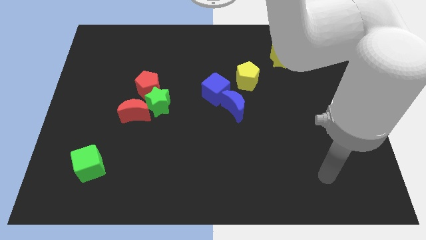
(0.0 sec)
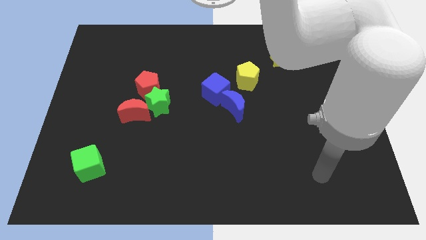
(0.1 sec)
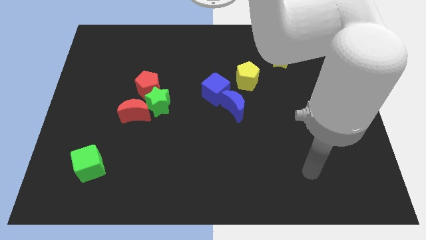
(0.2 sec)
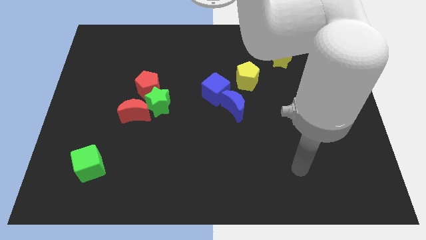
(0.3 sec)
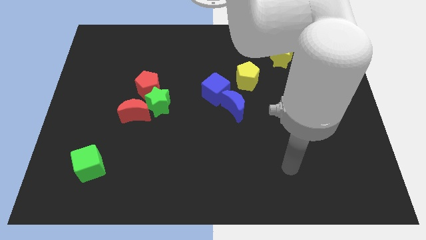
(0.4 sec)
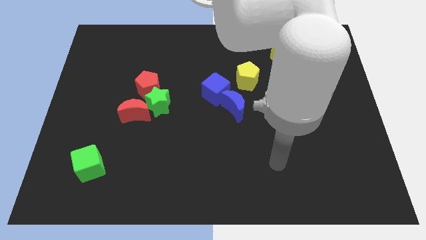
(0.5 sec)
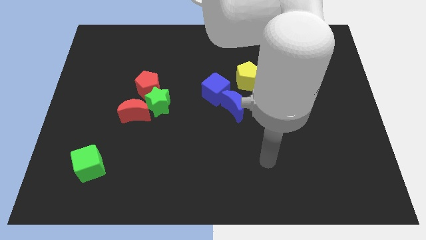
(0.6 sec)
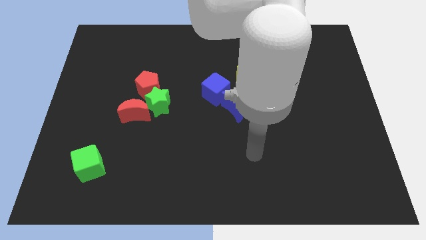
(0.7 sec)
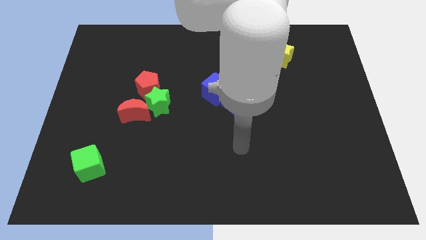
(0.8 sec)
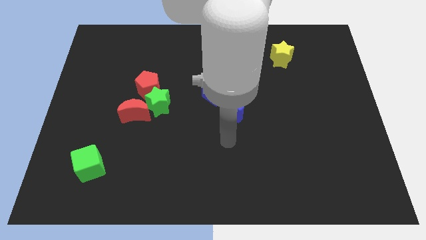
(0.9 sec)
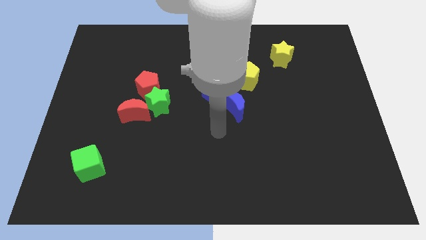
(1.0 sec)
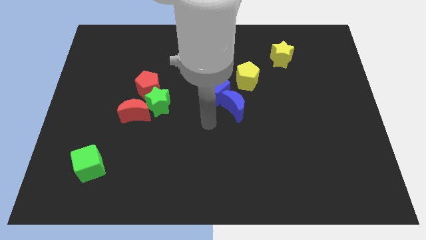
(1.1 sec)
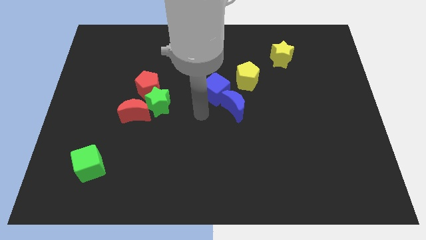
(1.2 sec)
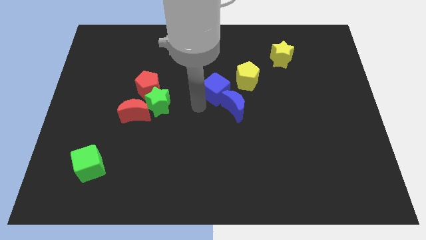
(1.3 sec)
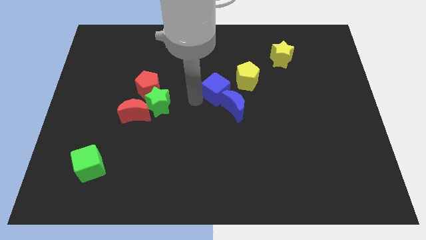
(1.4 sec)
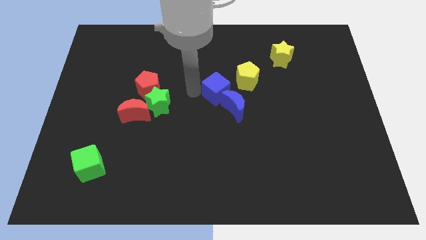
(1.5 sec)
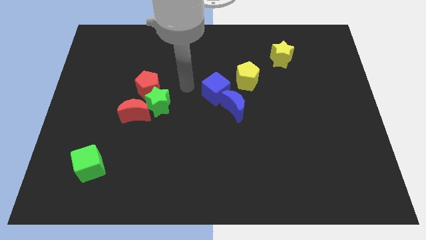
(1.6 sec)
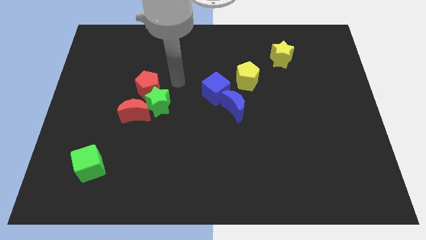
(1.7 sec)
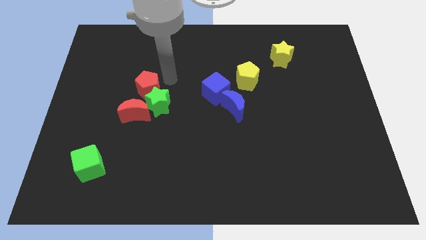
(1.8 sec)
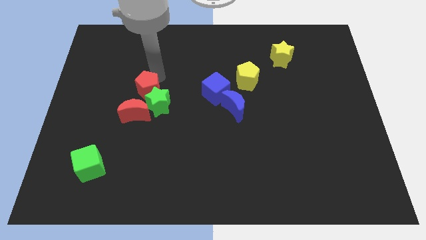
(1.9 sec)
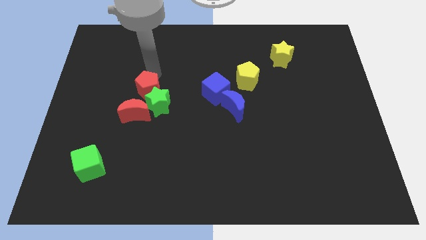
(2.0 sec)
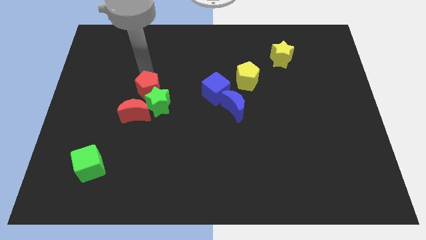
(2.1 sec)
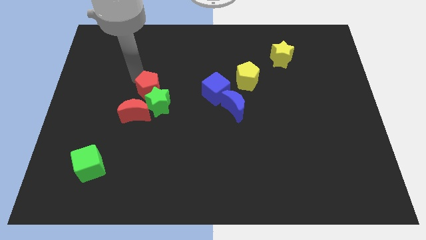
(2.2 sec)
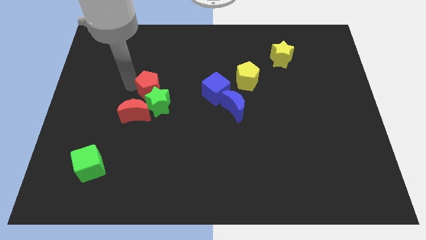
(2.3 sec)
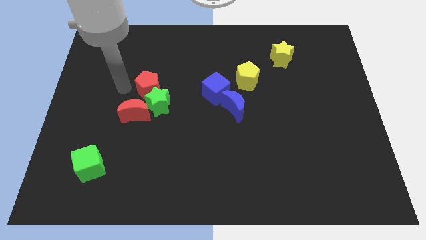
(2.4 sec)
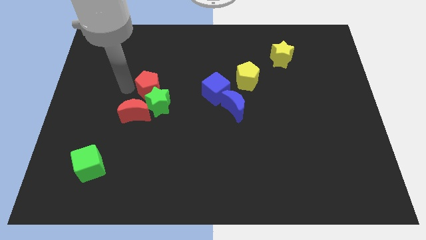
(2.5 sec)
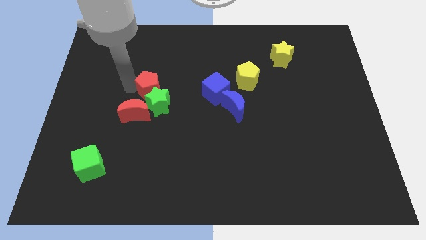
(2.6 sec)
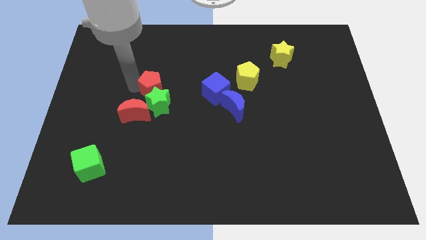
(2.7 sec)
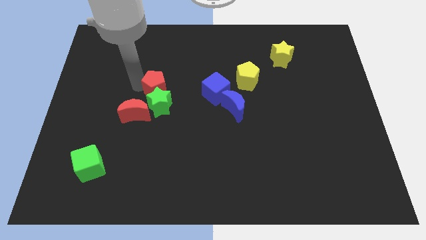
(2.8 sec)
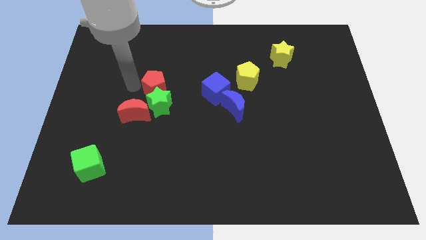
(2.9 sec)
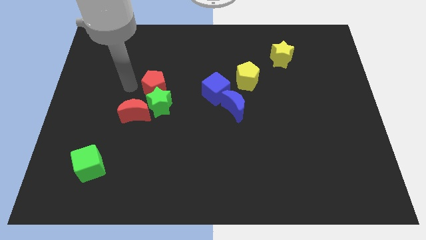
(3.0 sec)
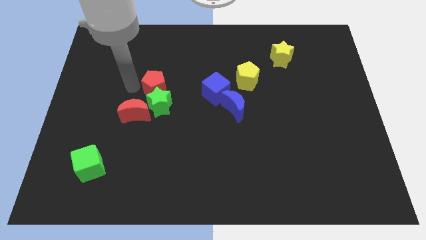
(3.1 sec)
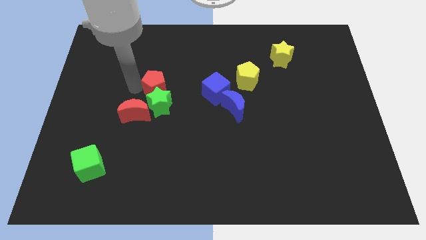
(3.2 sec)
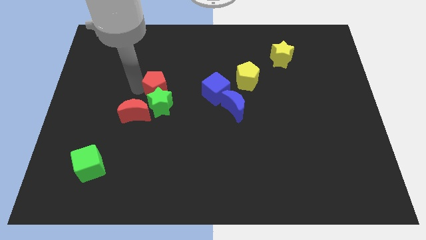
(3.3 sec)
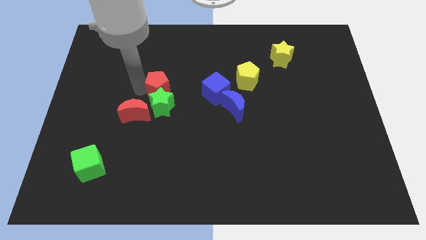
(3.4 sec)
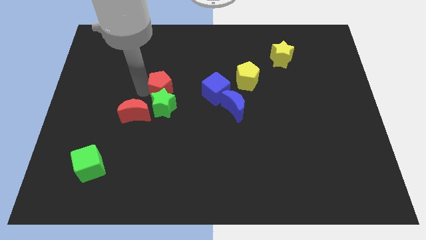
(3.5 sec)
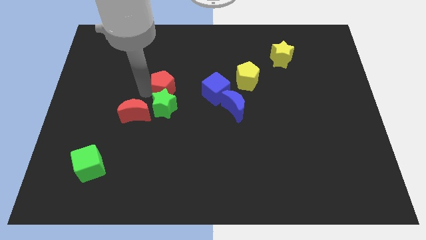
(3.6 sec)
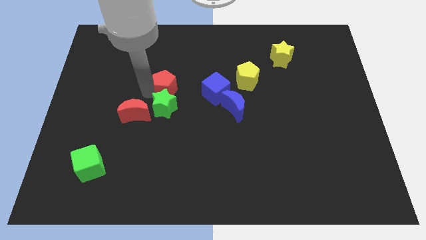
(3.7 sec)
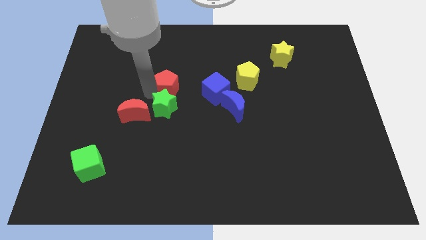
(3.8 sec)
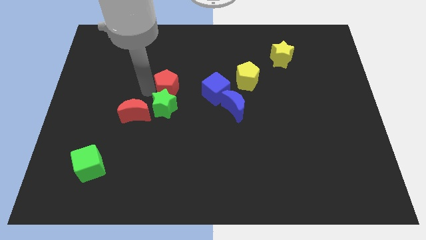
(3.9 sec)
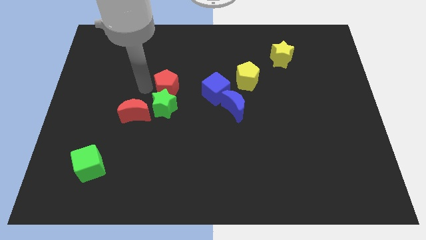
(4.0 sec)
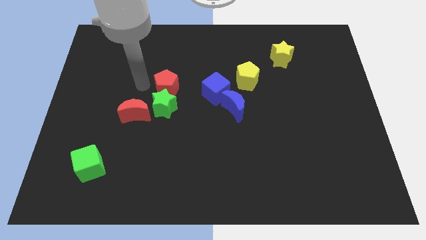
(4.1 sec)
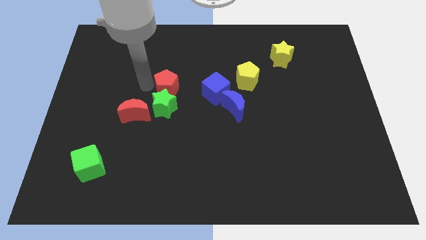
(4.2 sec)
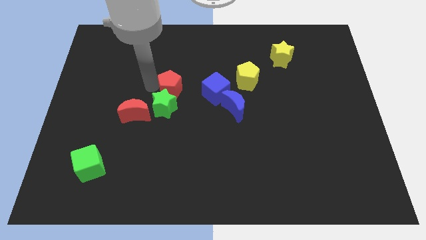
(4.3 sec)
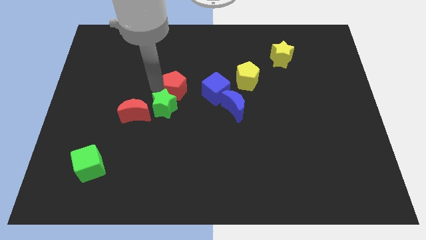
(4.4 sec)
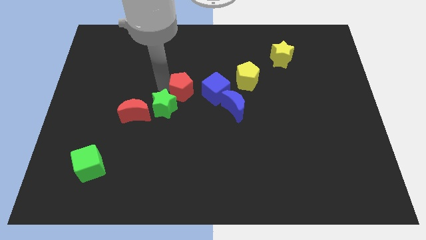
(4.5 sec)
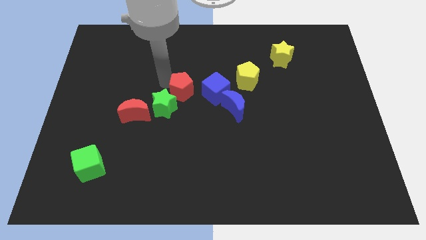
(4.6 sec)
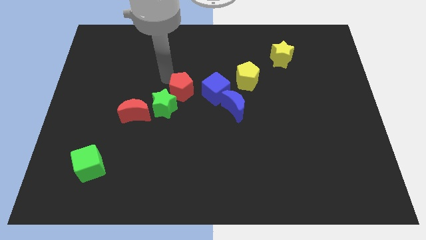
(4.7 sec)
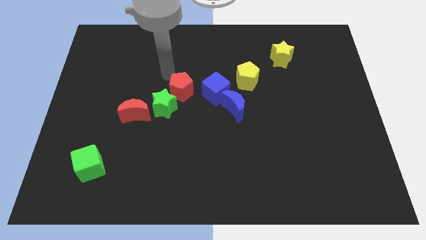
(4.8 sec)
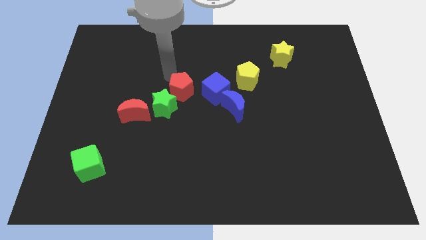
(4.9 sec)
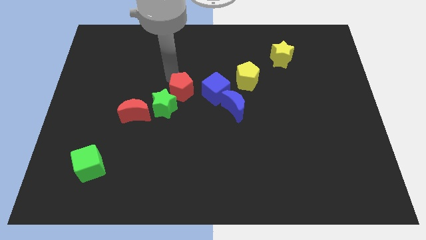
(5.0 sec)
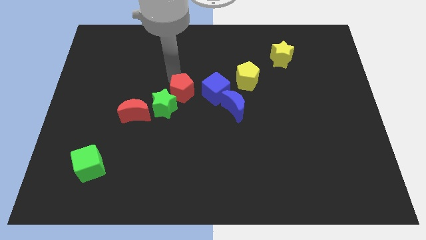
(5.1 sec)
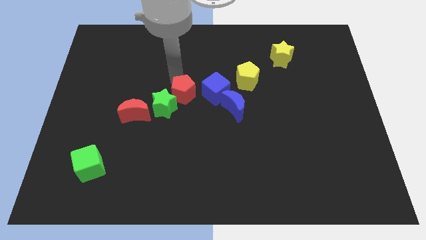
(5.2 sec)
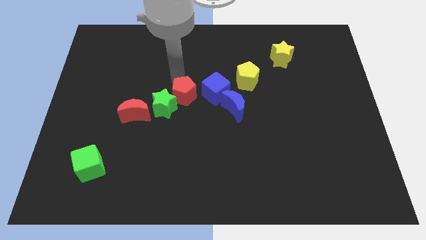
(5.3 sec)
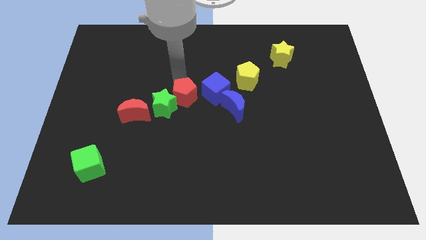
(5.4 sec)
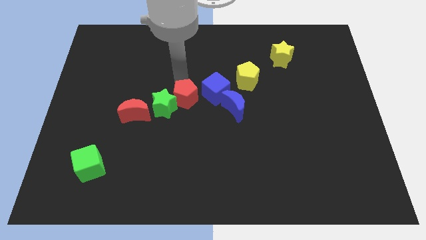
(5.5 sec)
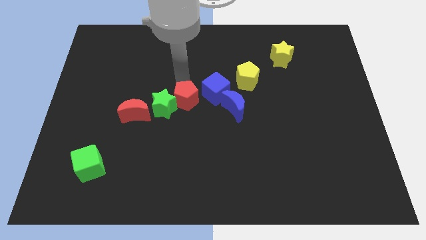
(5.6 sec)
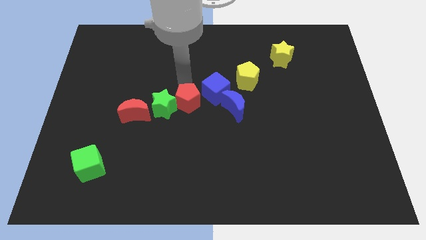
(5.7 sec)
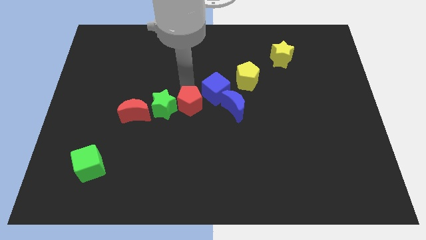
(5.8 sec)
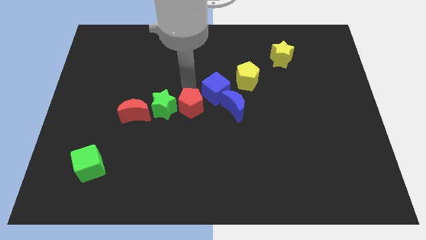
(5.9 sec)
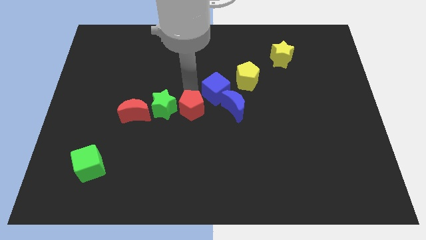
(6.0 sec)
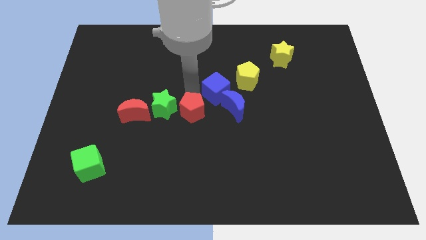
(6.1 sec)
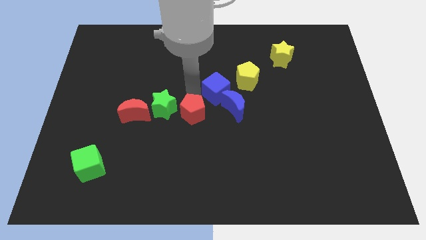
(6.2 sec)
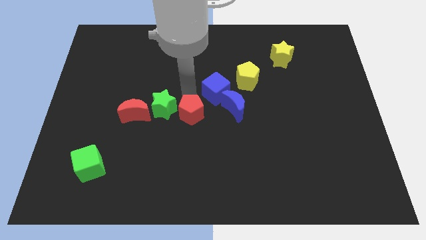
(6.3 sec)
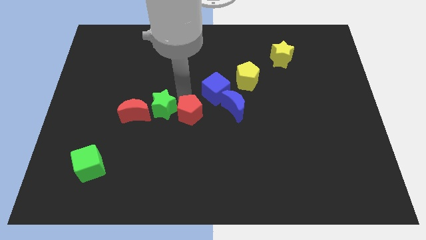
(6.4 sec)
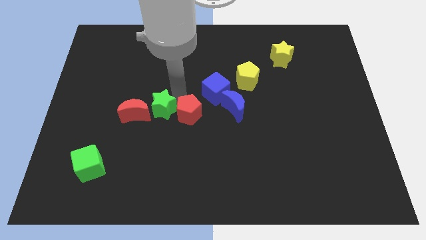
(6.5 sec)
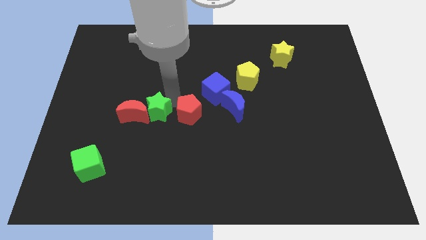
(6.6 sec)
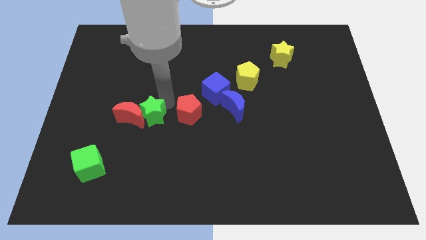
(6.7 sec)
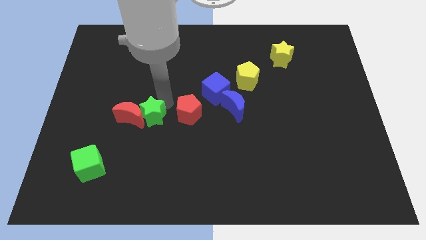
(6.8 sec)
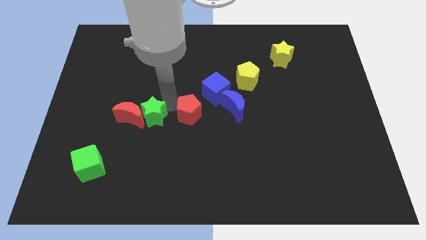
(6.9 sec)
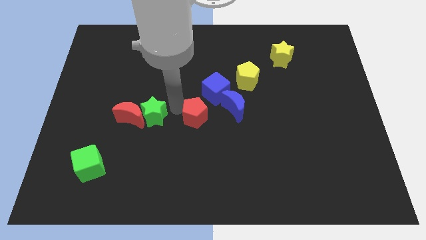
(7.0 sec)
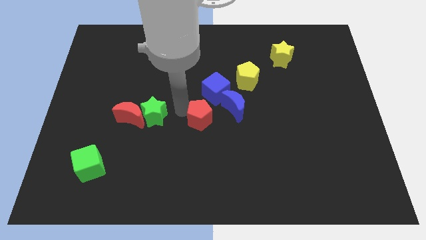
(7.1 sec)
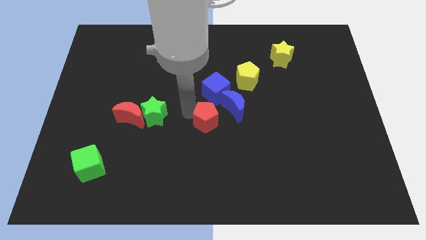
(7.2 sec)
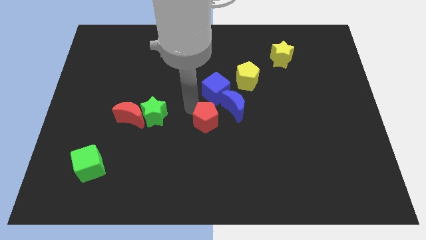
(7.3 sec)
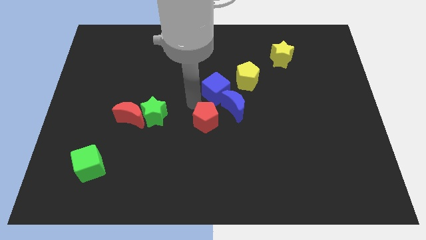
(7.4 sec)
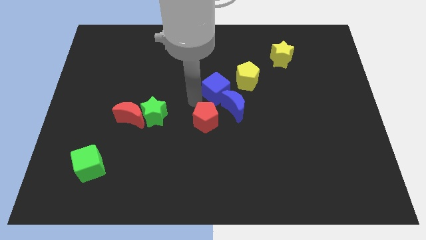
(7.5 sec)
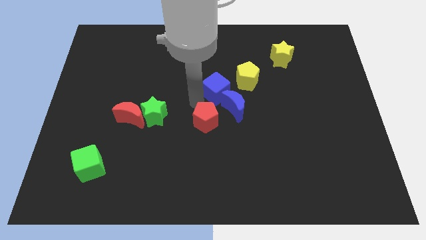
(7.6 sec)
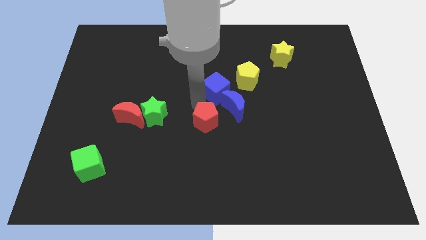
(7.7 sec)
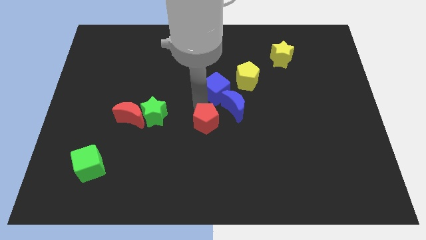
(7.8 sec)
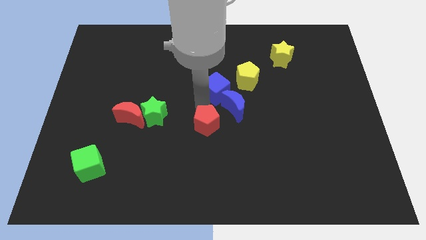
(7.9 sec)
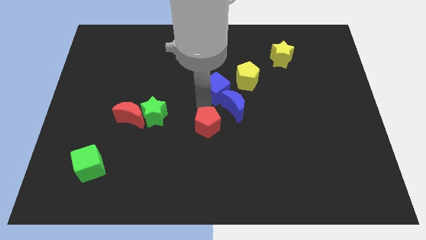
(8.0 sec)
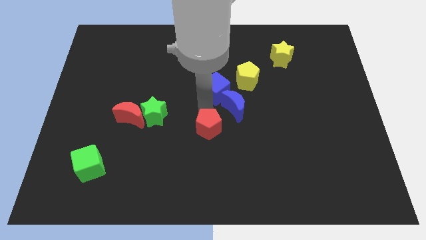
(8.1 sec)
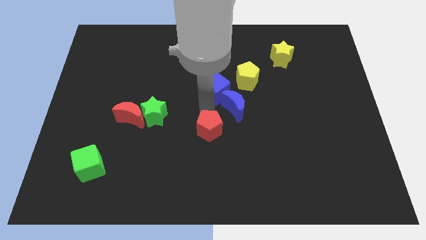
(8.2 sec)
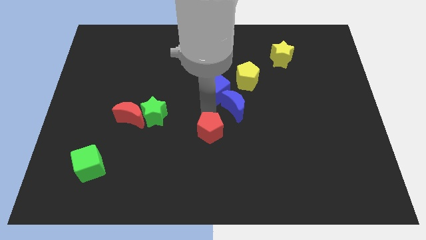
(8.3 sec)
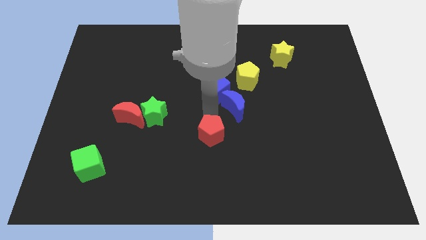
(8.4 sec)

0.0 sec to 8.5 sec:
slide the red pentagon downwards and then right
